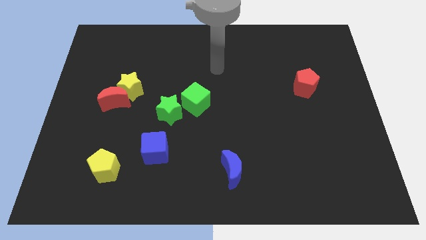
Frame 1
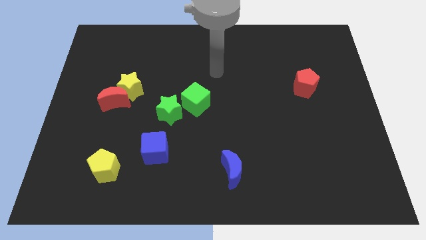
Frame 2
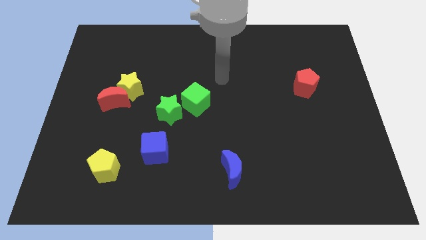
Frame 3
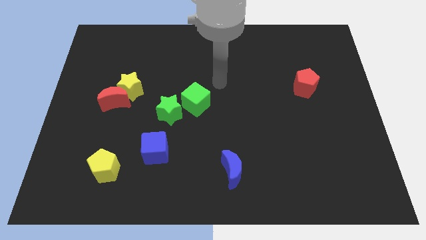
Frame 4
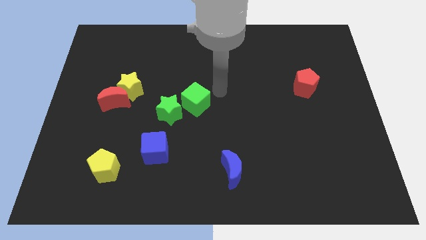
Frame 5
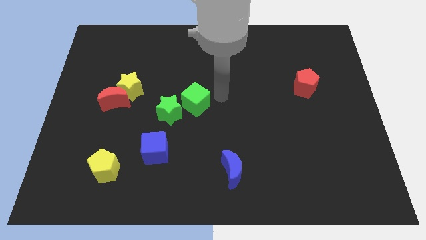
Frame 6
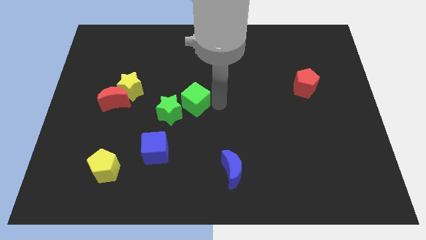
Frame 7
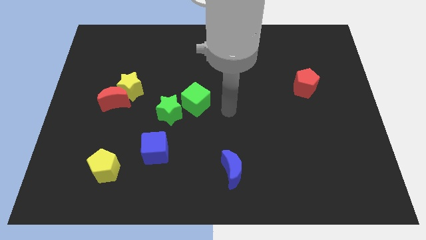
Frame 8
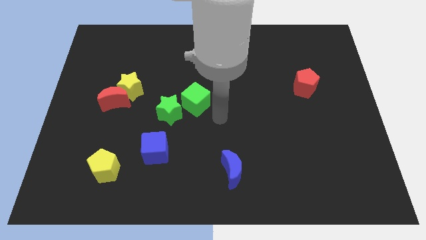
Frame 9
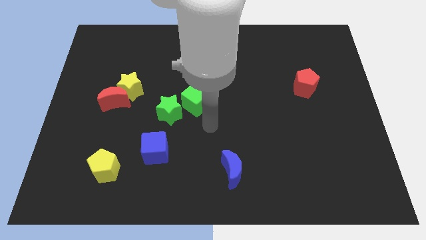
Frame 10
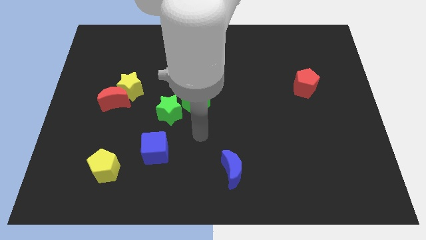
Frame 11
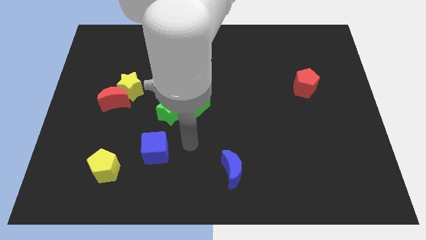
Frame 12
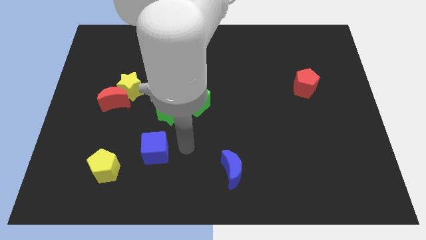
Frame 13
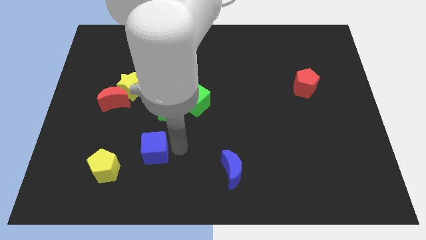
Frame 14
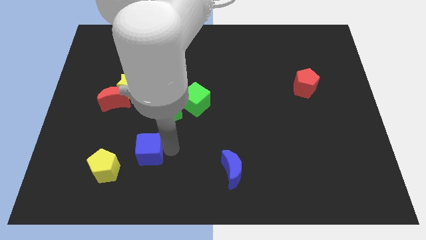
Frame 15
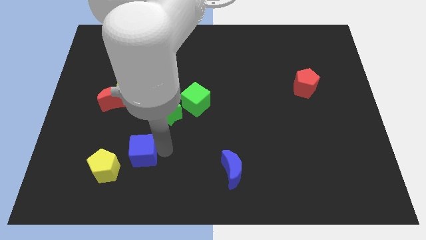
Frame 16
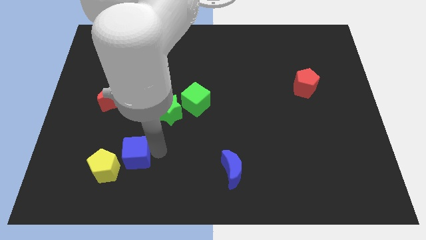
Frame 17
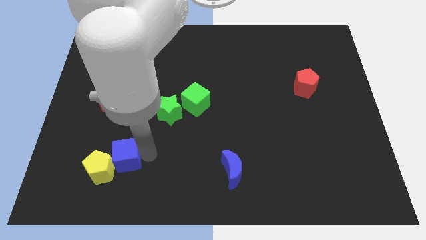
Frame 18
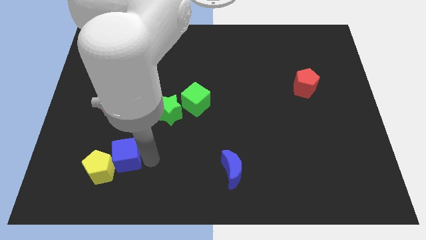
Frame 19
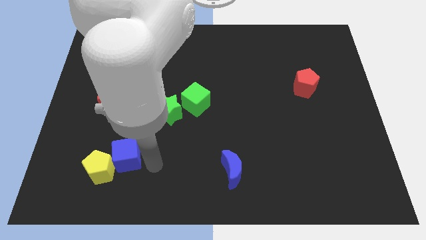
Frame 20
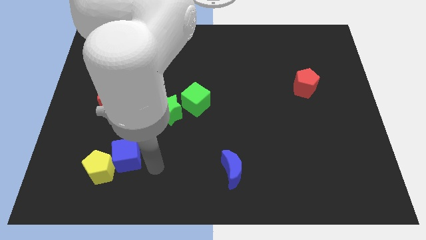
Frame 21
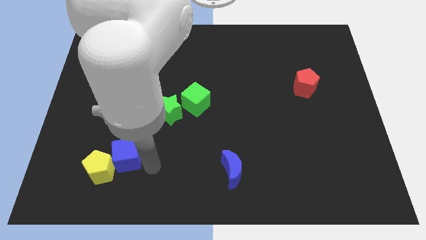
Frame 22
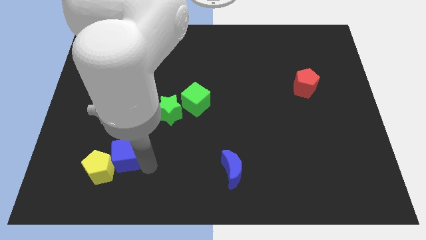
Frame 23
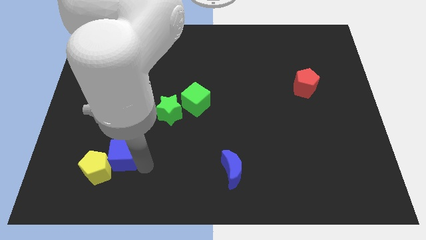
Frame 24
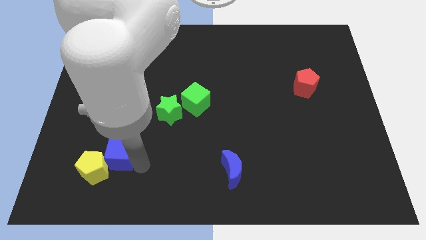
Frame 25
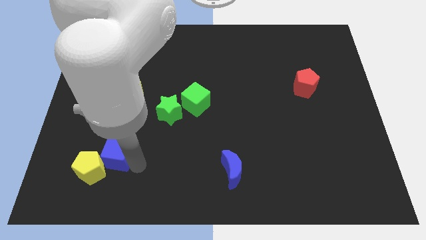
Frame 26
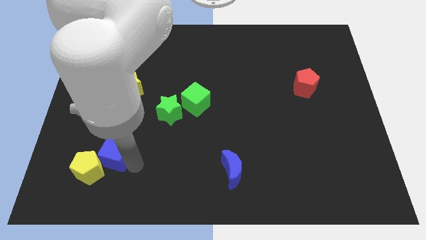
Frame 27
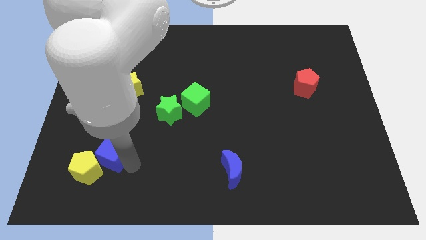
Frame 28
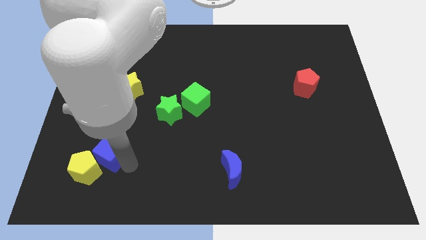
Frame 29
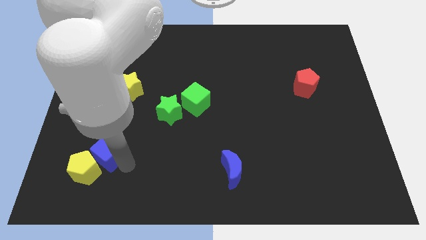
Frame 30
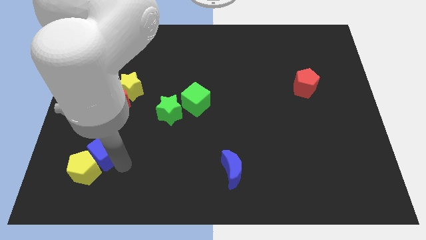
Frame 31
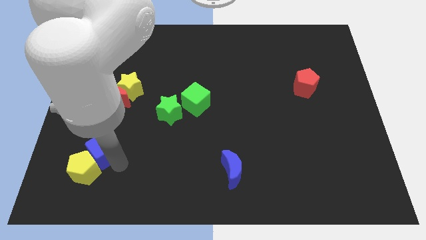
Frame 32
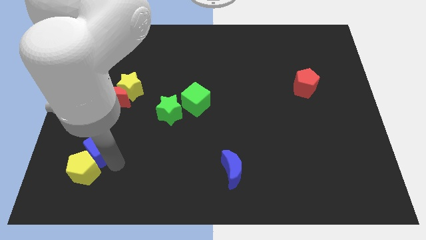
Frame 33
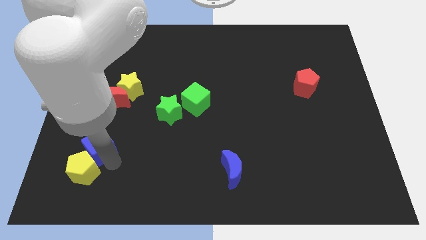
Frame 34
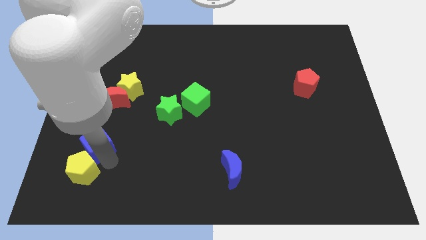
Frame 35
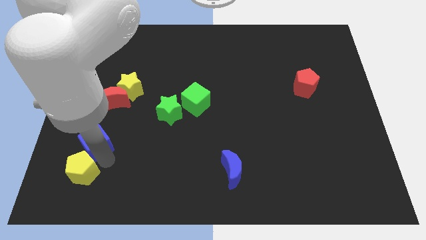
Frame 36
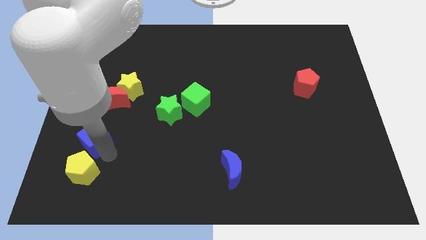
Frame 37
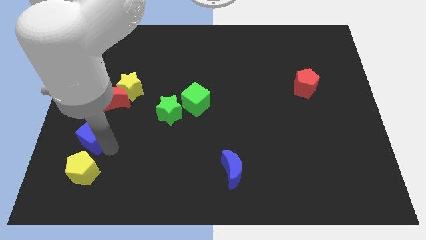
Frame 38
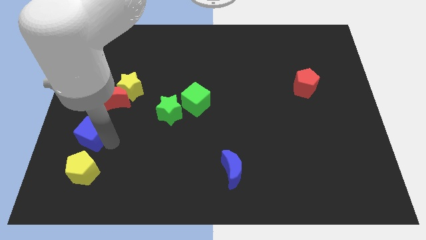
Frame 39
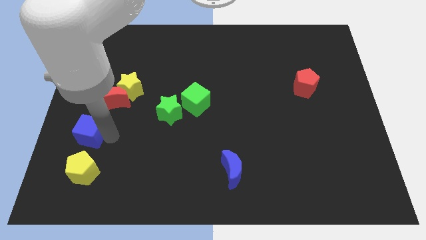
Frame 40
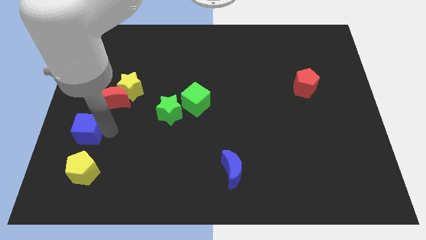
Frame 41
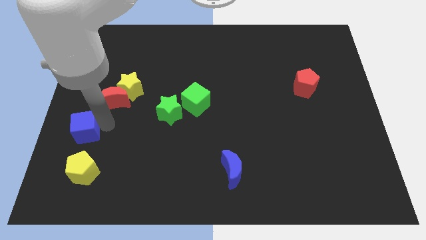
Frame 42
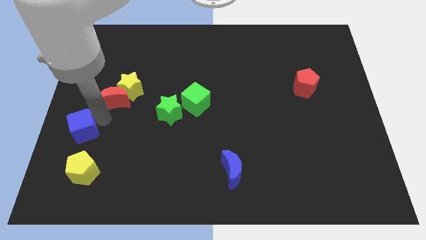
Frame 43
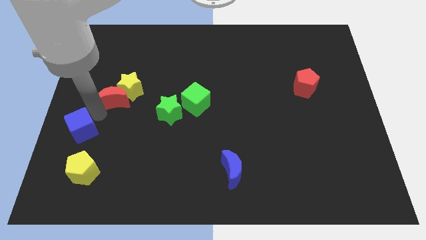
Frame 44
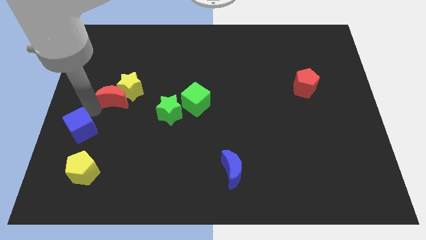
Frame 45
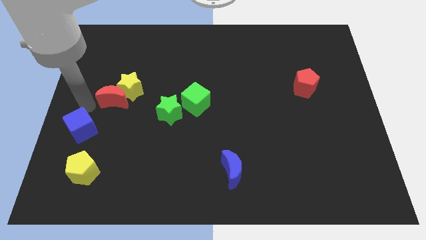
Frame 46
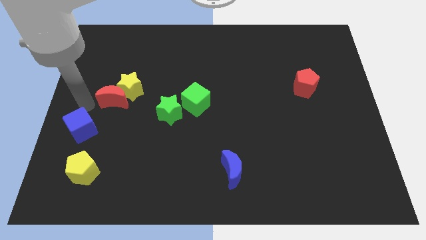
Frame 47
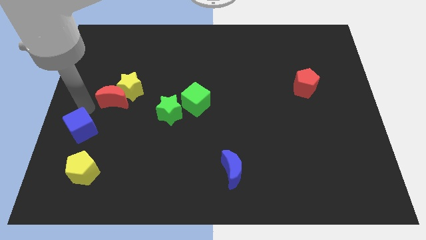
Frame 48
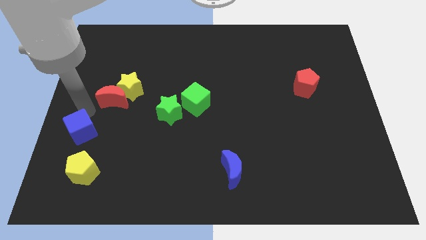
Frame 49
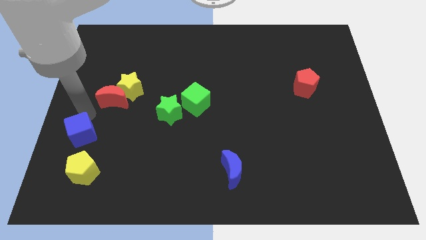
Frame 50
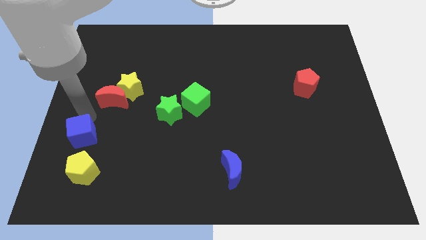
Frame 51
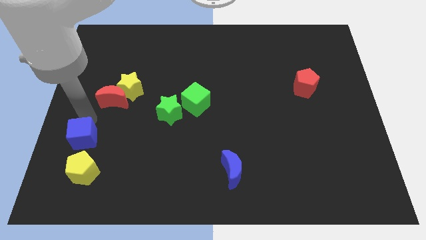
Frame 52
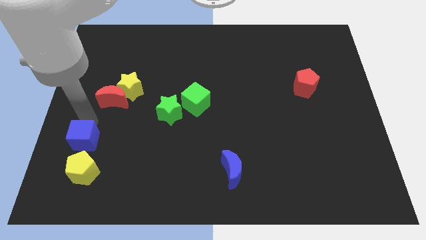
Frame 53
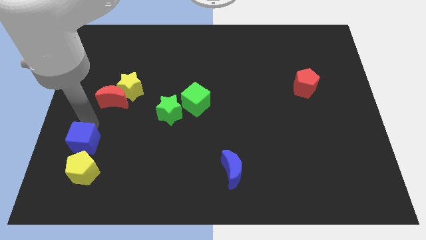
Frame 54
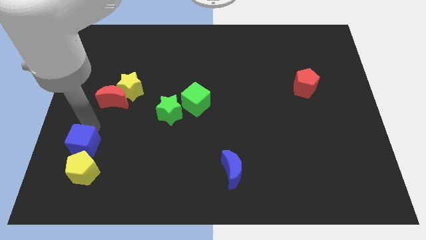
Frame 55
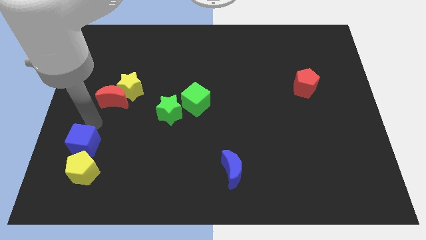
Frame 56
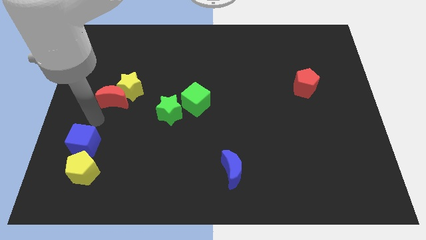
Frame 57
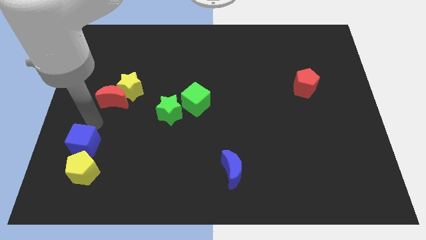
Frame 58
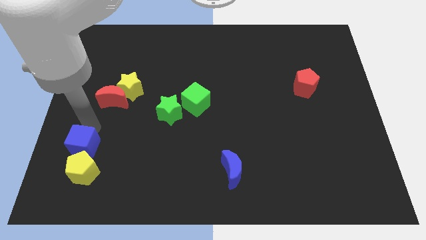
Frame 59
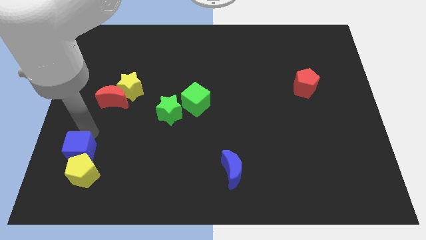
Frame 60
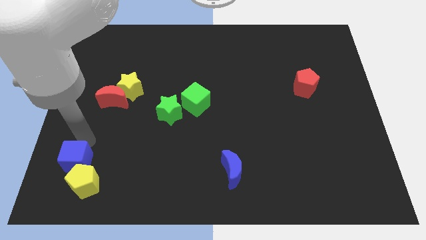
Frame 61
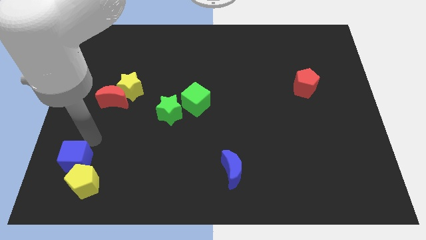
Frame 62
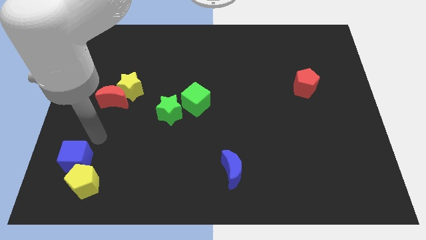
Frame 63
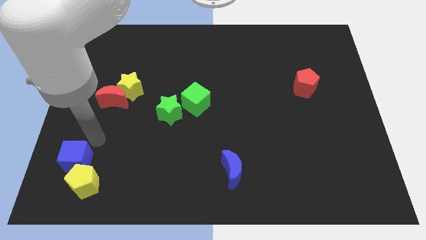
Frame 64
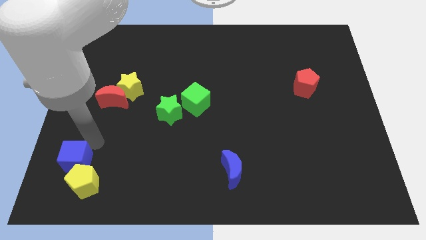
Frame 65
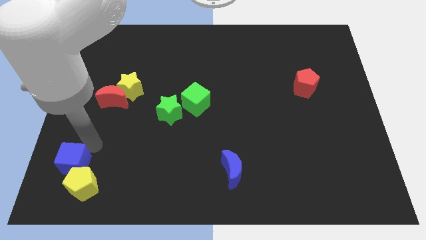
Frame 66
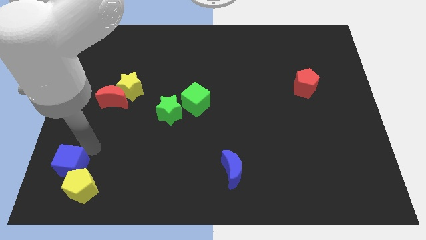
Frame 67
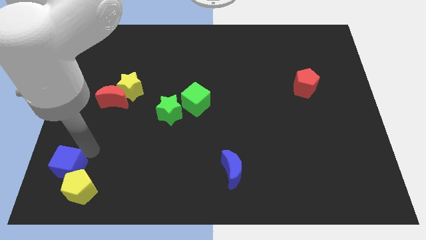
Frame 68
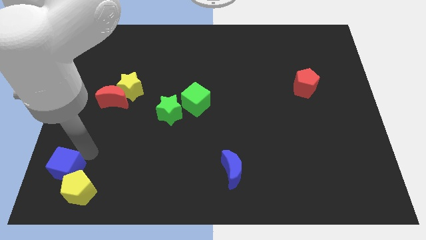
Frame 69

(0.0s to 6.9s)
push the blue cube to the bottom left corner

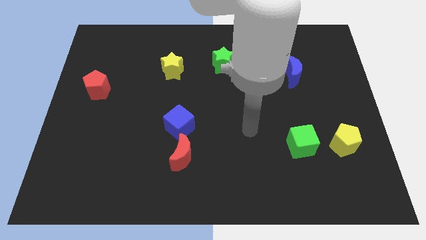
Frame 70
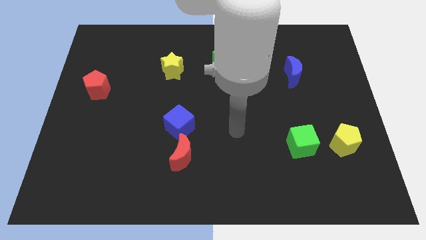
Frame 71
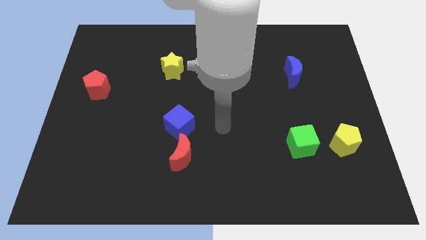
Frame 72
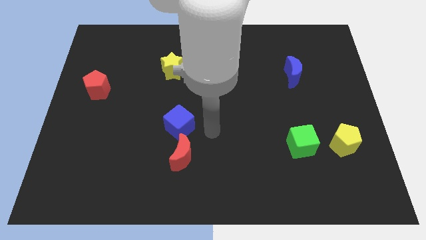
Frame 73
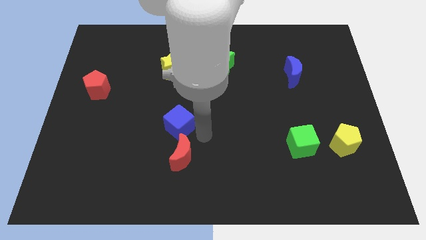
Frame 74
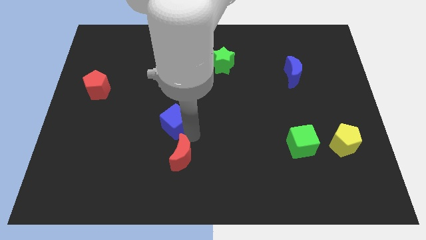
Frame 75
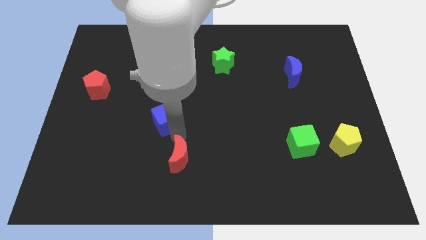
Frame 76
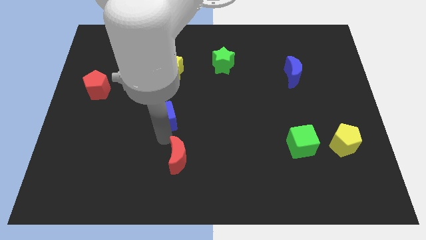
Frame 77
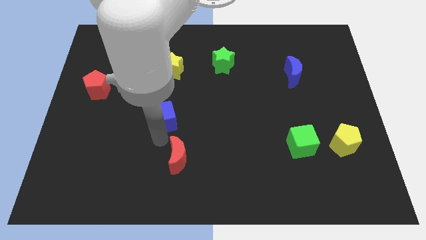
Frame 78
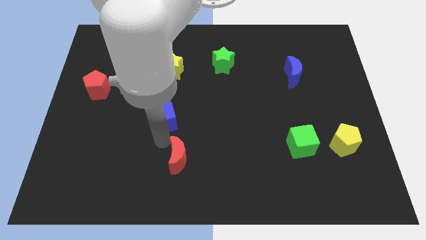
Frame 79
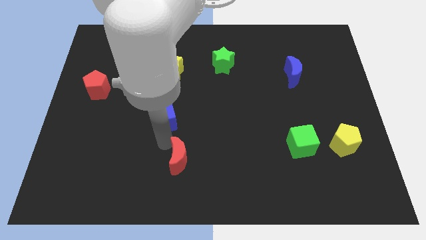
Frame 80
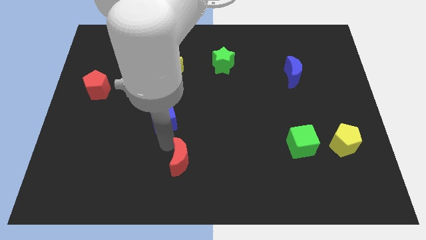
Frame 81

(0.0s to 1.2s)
put the red moon to the bottom
